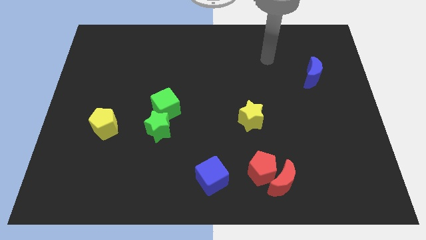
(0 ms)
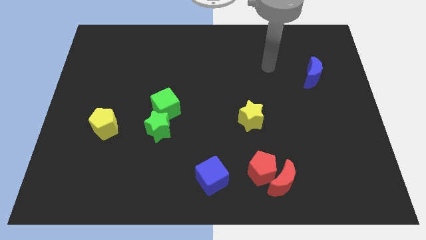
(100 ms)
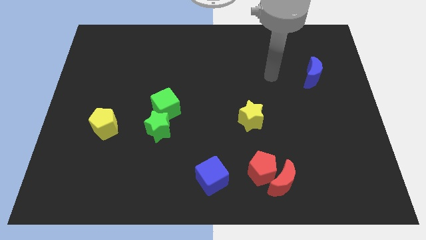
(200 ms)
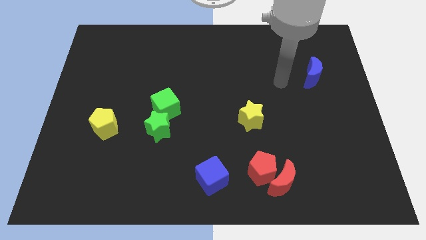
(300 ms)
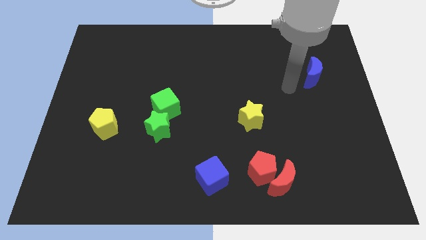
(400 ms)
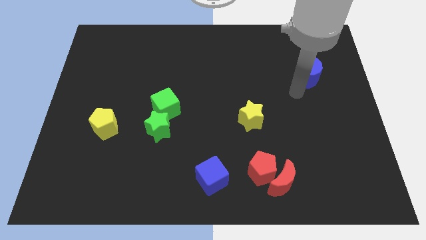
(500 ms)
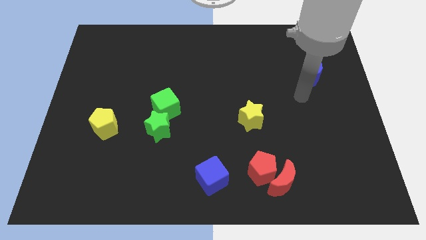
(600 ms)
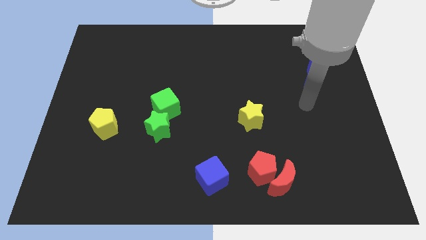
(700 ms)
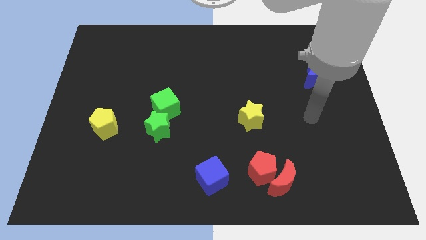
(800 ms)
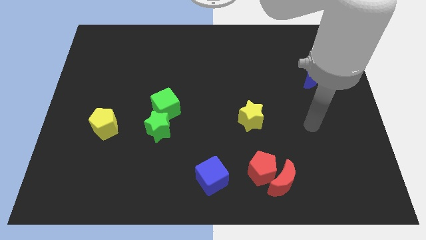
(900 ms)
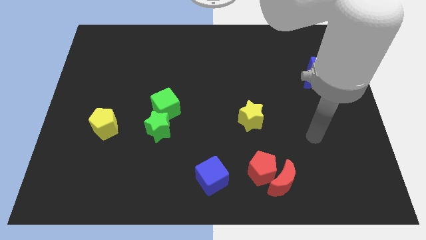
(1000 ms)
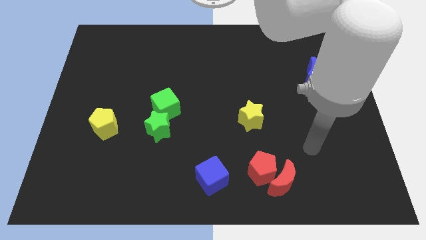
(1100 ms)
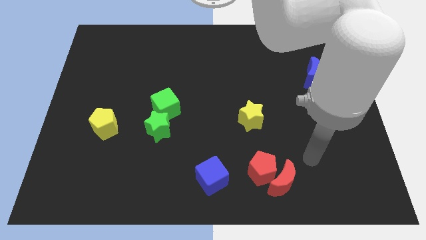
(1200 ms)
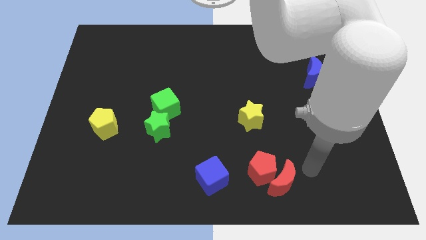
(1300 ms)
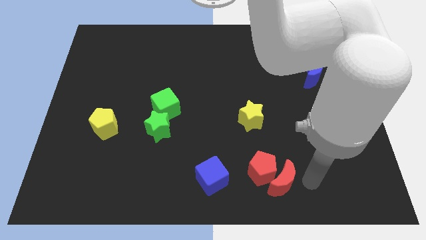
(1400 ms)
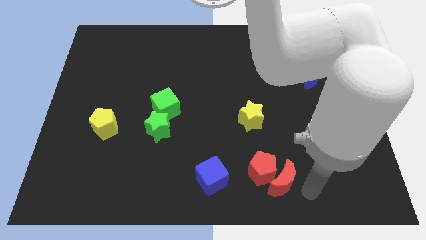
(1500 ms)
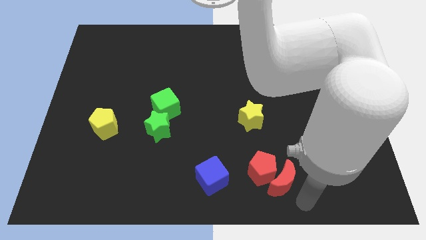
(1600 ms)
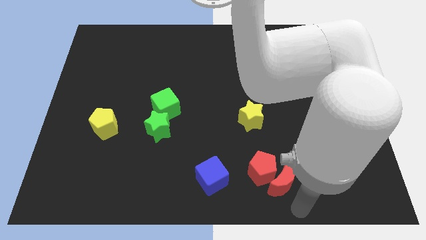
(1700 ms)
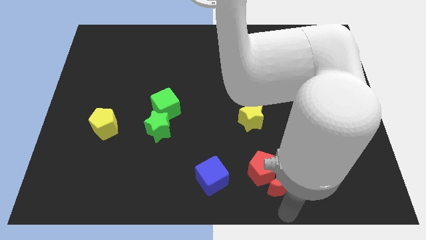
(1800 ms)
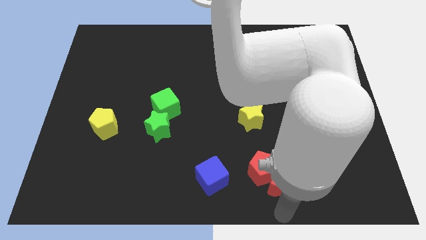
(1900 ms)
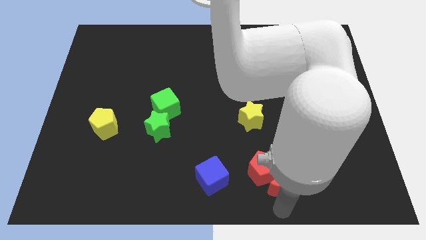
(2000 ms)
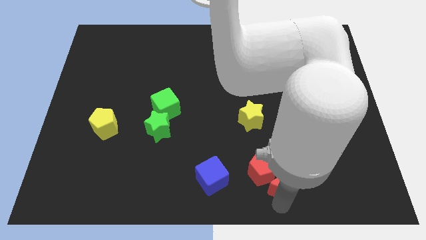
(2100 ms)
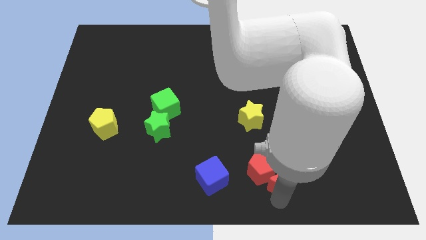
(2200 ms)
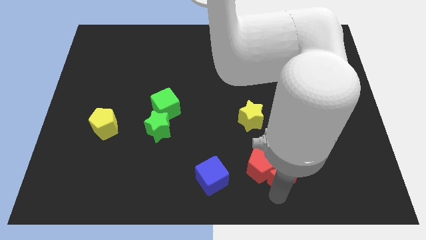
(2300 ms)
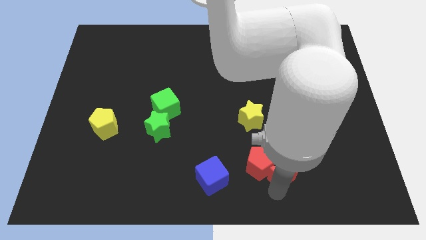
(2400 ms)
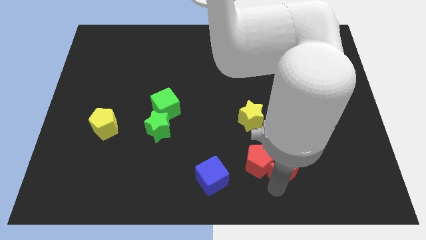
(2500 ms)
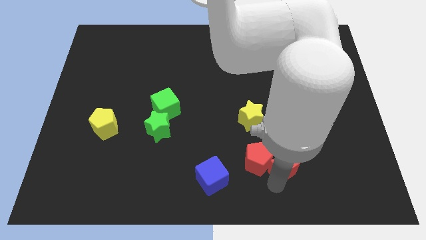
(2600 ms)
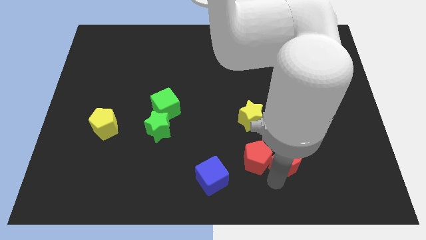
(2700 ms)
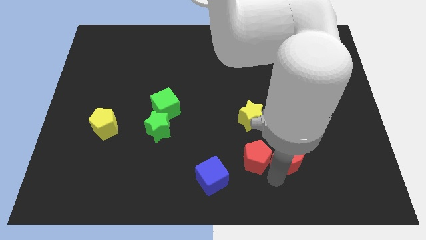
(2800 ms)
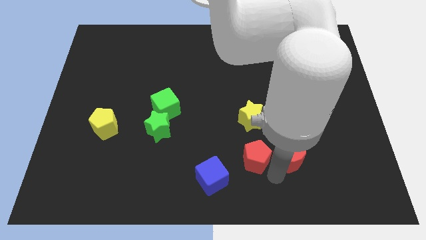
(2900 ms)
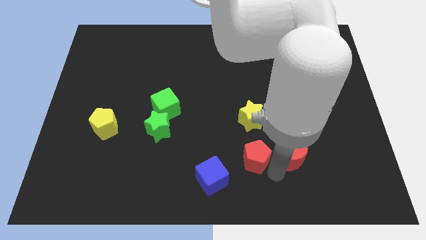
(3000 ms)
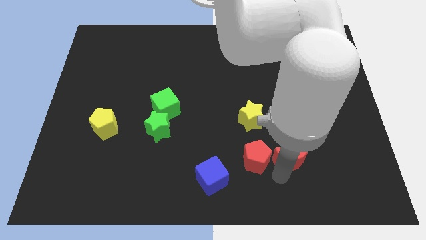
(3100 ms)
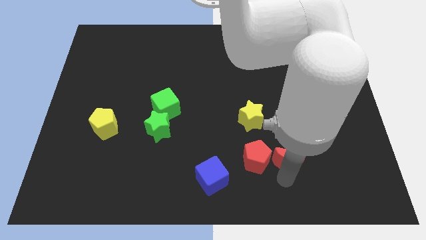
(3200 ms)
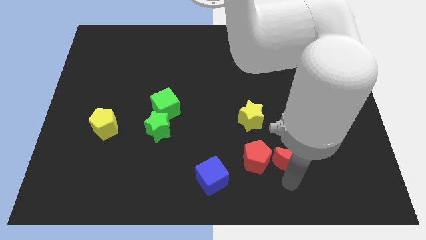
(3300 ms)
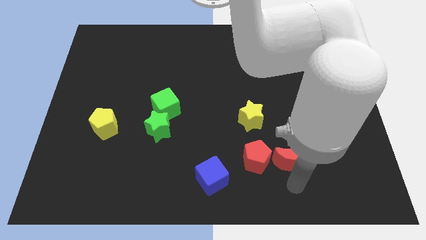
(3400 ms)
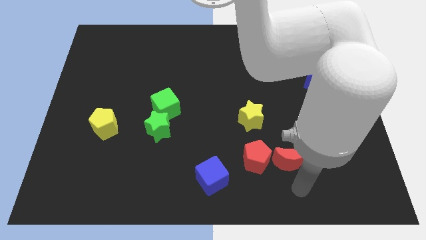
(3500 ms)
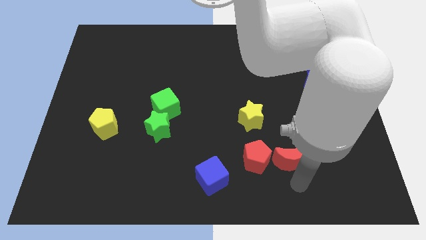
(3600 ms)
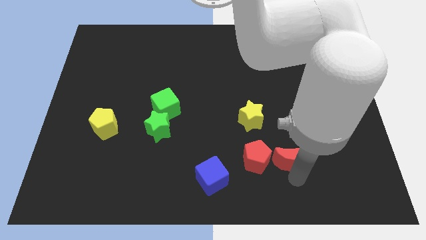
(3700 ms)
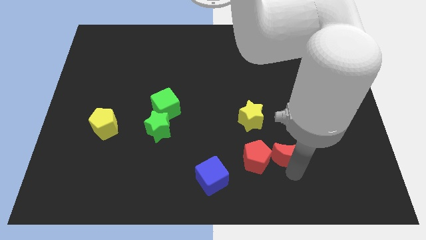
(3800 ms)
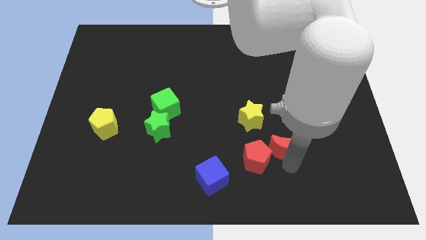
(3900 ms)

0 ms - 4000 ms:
slide the red moon a little bit up

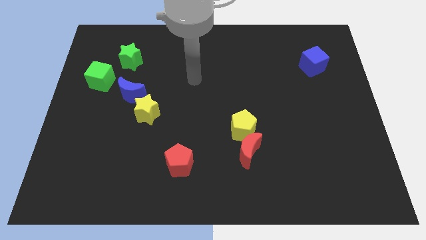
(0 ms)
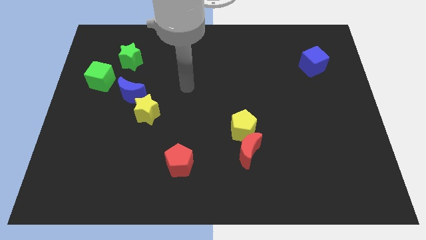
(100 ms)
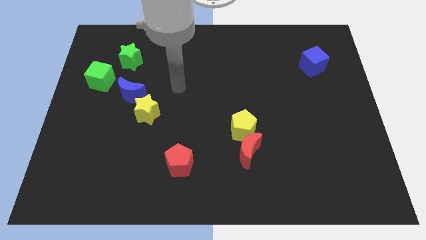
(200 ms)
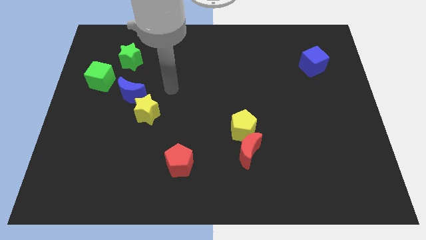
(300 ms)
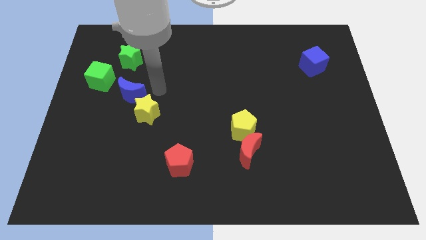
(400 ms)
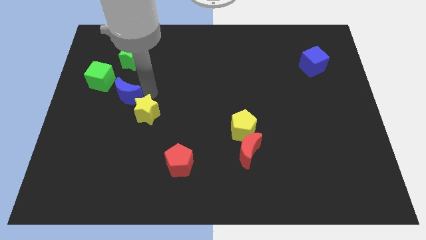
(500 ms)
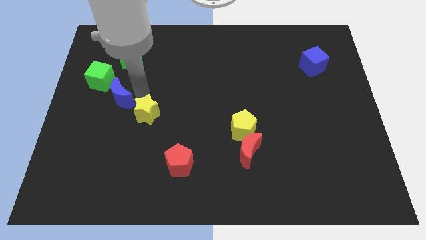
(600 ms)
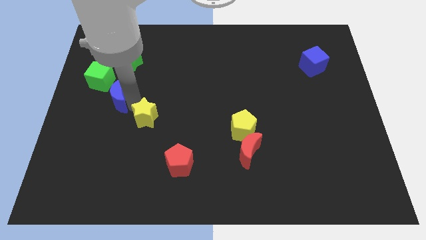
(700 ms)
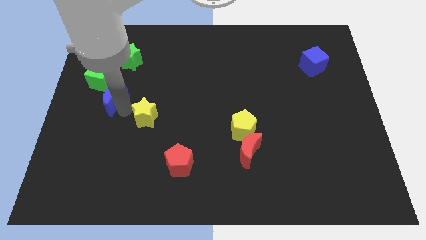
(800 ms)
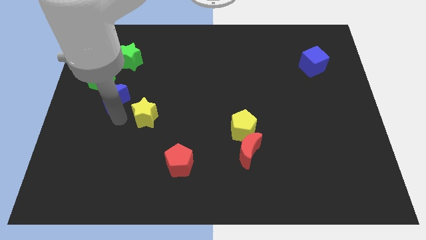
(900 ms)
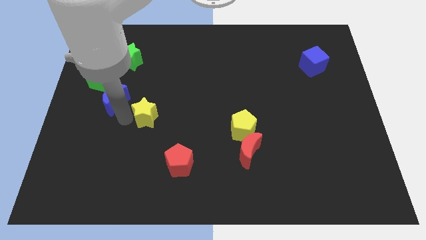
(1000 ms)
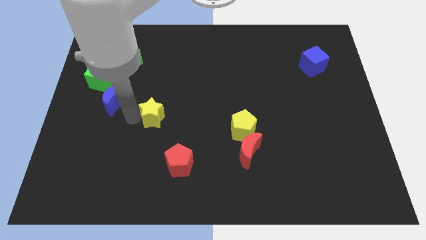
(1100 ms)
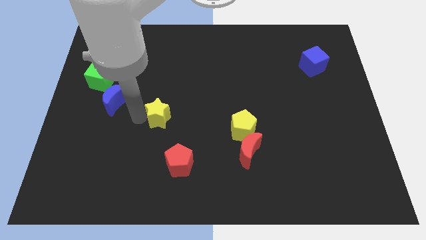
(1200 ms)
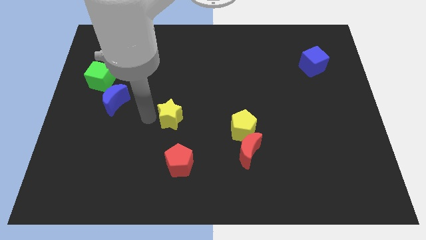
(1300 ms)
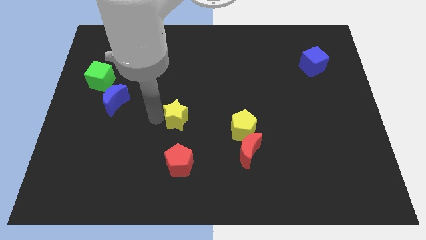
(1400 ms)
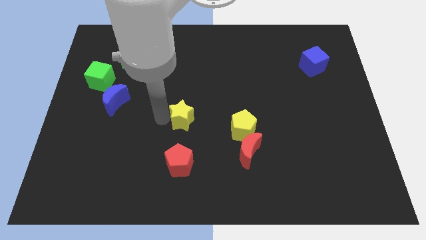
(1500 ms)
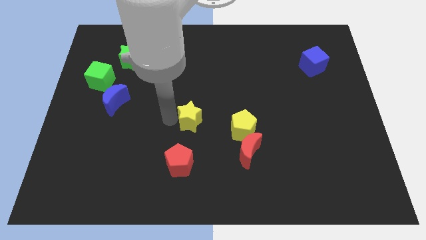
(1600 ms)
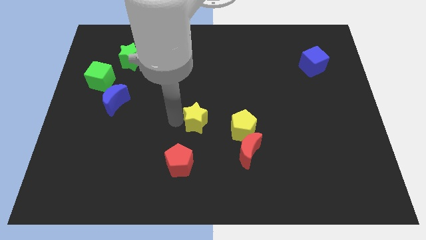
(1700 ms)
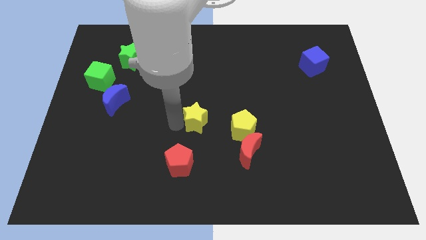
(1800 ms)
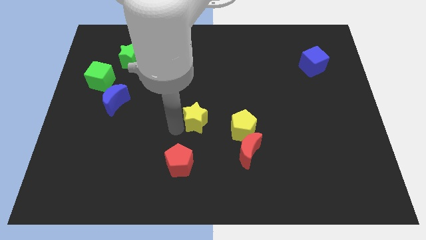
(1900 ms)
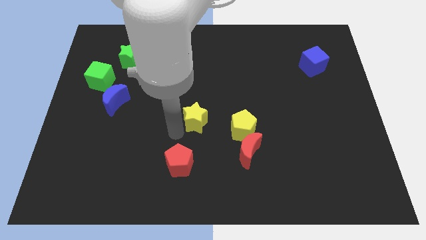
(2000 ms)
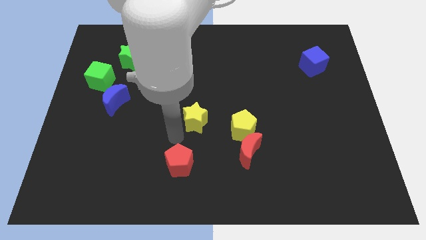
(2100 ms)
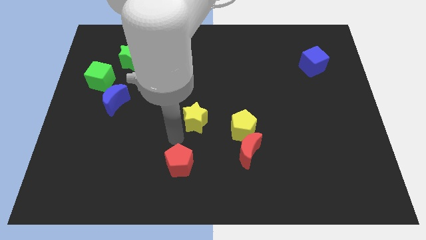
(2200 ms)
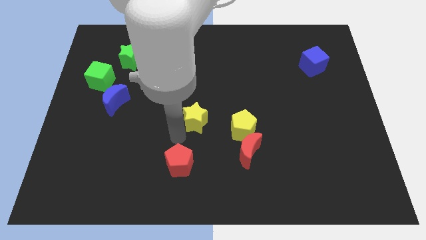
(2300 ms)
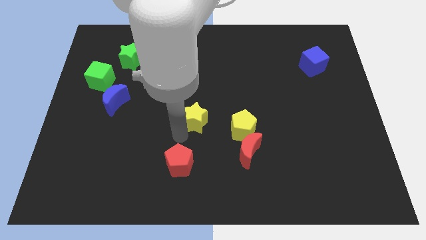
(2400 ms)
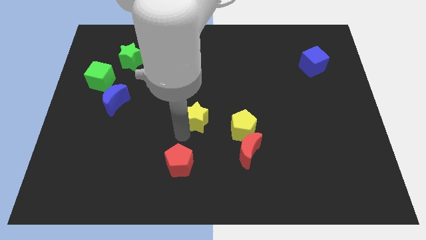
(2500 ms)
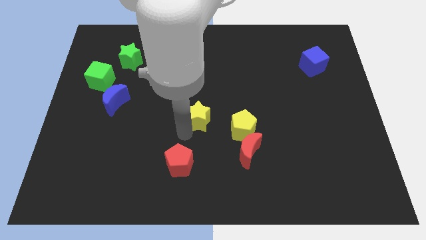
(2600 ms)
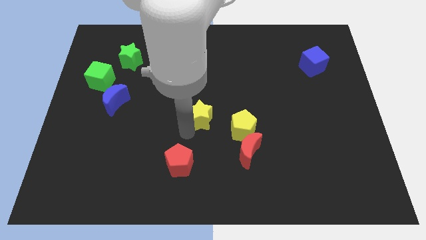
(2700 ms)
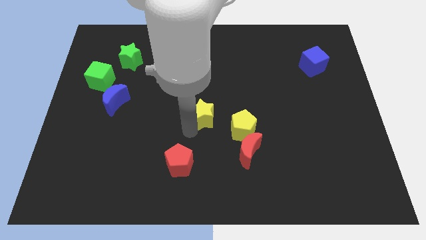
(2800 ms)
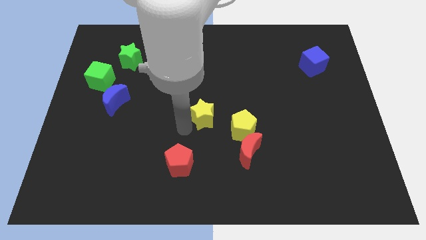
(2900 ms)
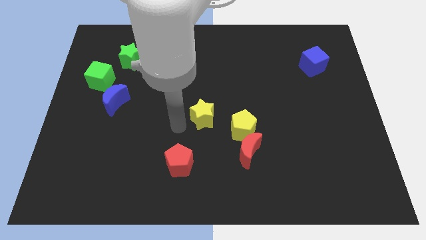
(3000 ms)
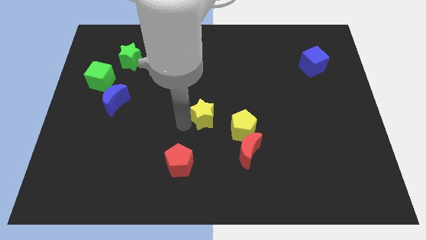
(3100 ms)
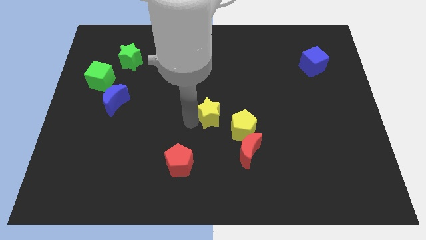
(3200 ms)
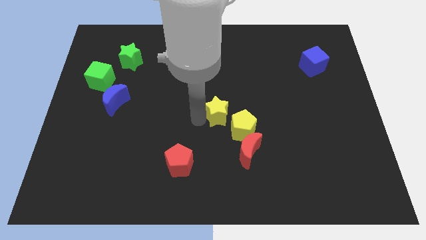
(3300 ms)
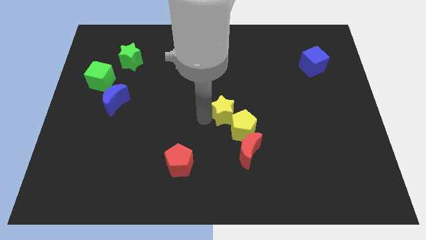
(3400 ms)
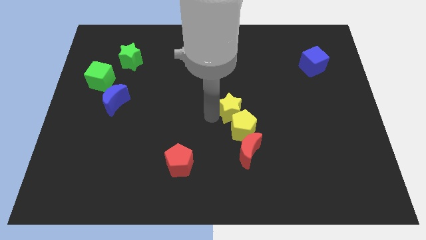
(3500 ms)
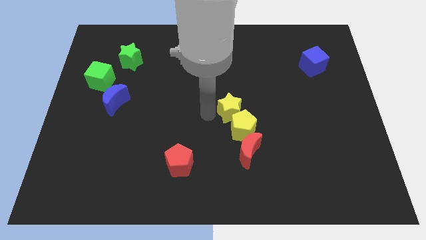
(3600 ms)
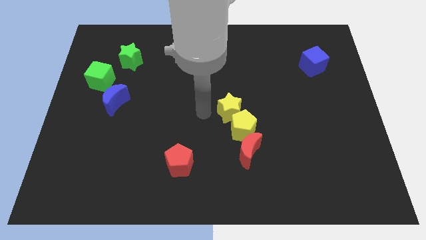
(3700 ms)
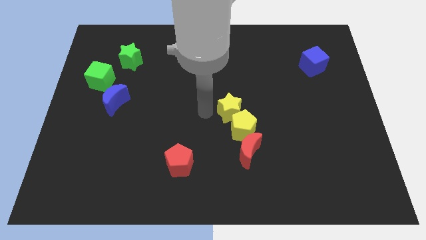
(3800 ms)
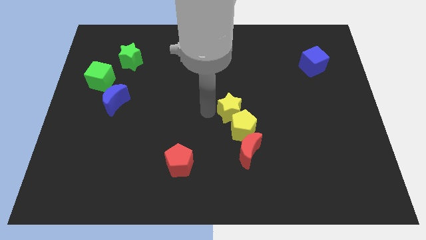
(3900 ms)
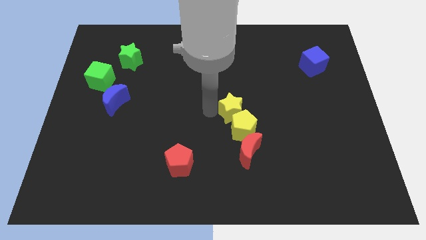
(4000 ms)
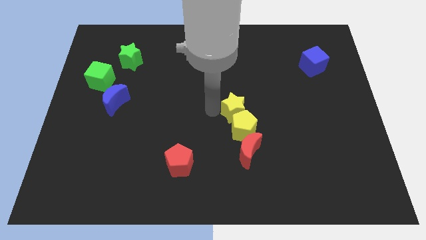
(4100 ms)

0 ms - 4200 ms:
slide the yellow star to the right
